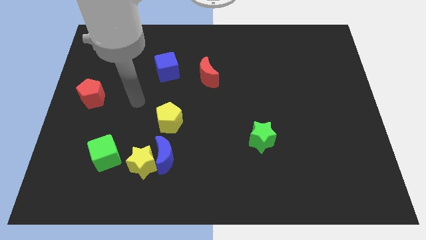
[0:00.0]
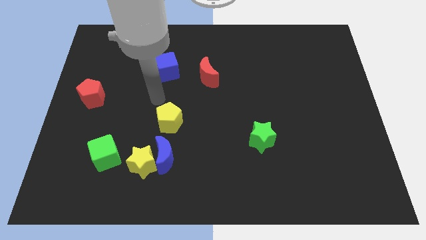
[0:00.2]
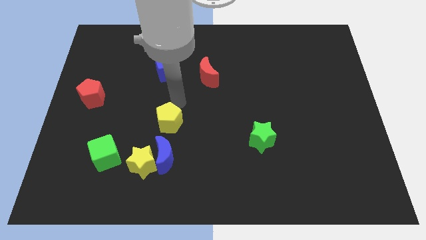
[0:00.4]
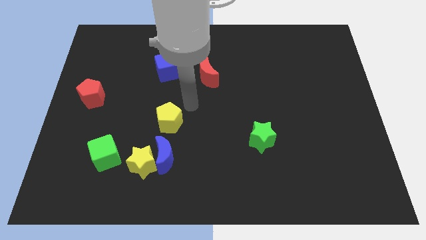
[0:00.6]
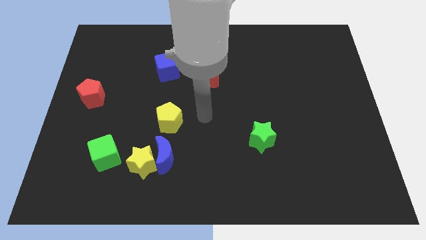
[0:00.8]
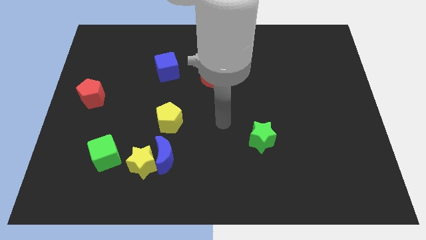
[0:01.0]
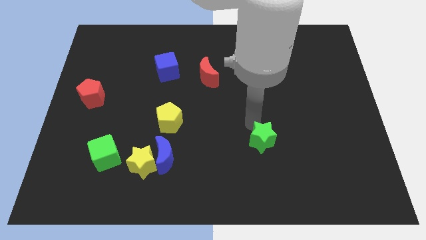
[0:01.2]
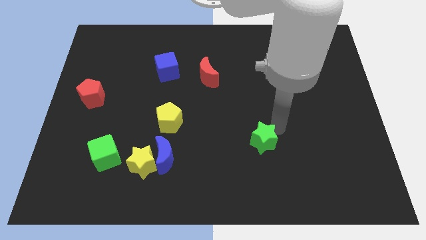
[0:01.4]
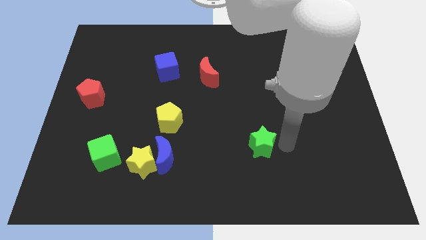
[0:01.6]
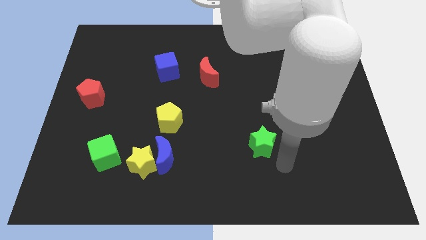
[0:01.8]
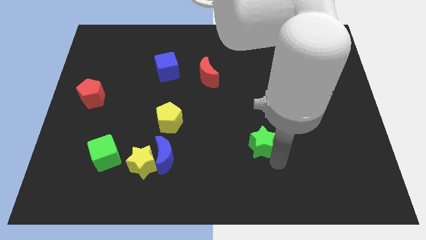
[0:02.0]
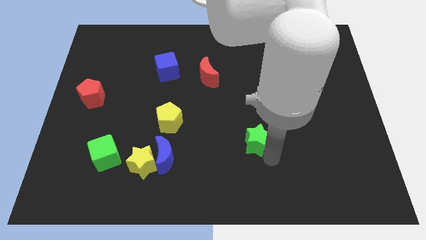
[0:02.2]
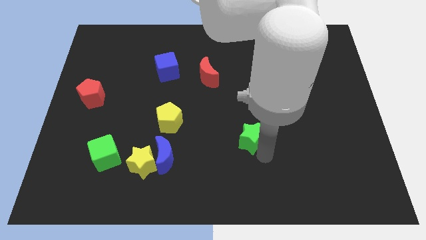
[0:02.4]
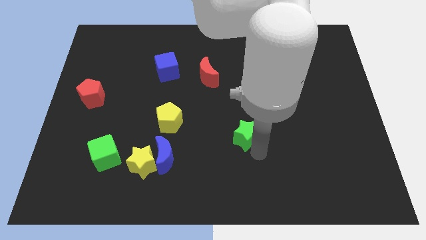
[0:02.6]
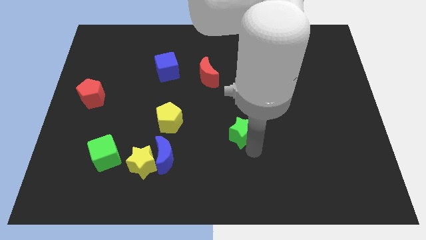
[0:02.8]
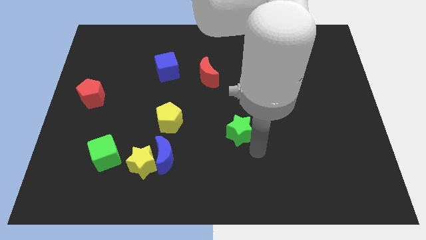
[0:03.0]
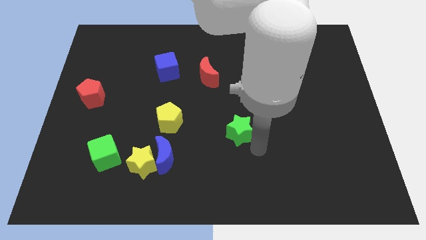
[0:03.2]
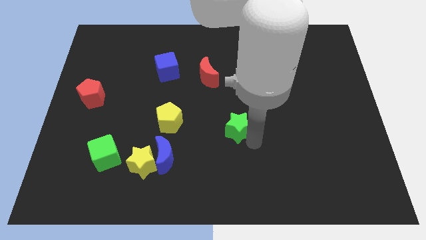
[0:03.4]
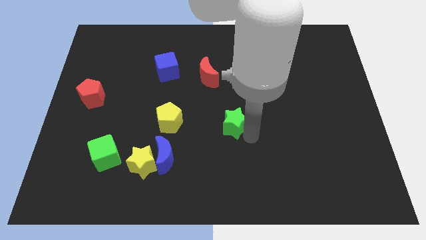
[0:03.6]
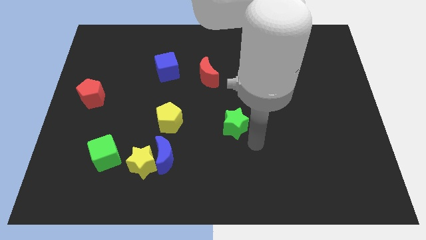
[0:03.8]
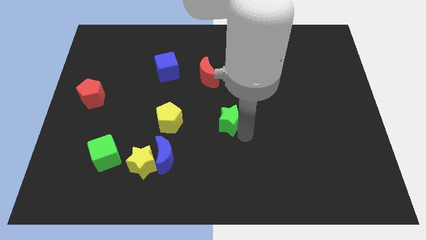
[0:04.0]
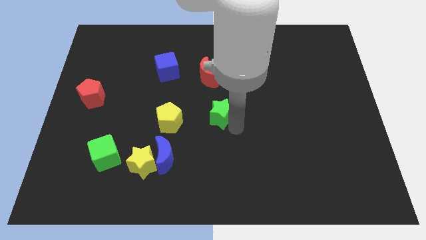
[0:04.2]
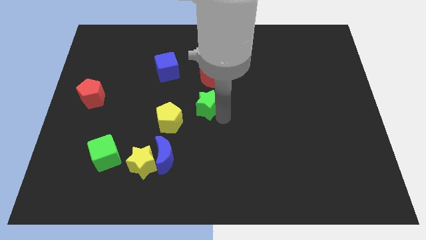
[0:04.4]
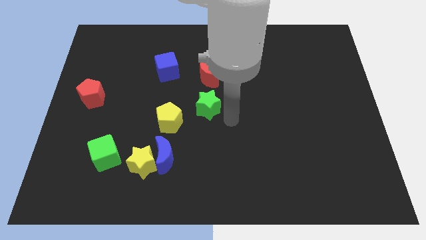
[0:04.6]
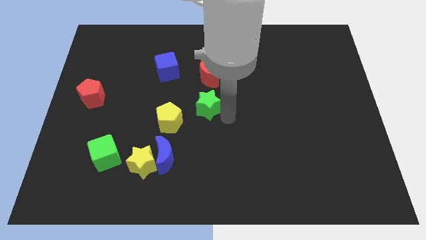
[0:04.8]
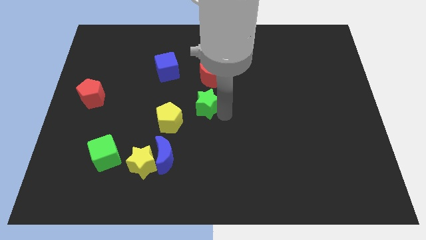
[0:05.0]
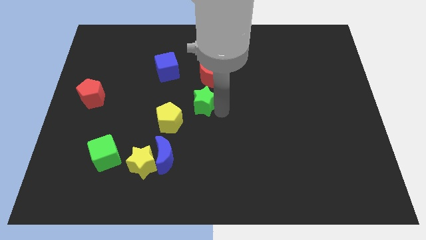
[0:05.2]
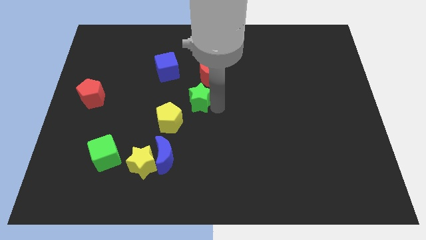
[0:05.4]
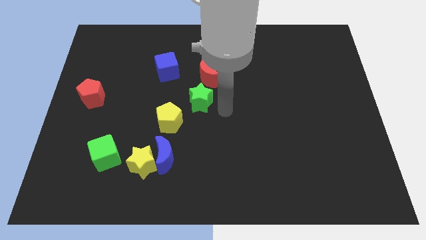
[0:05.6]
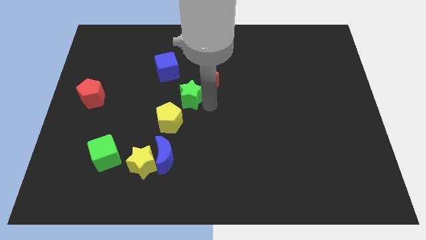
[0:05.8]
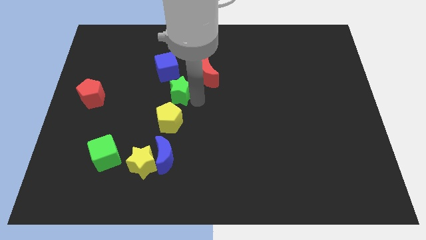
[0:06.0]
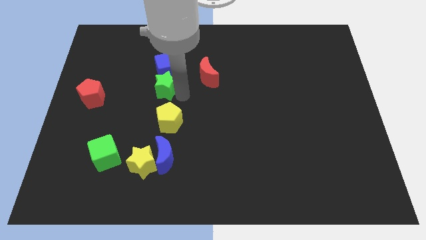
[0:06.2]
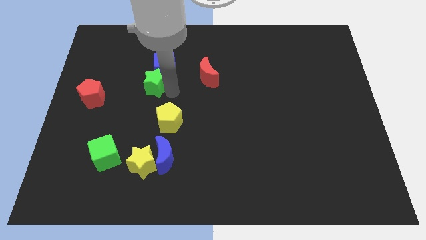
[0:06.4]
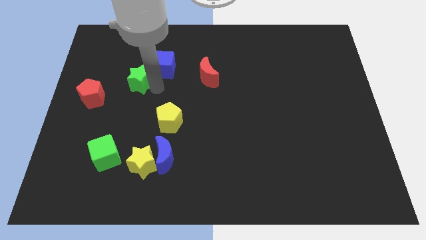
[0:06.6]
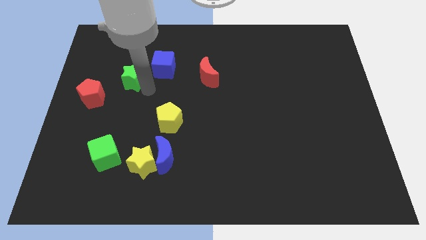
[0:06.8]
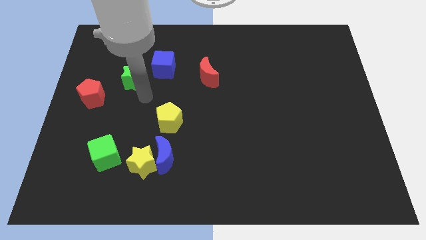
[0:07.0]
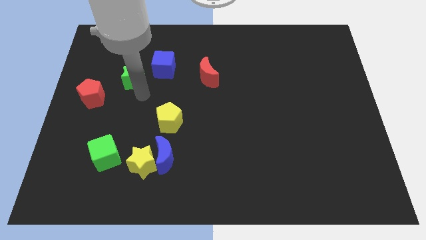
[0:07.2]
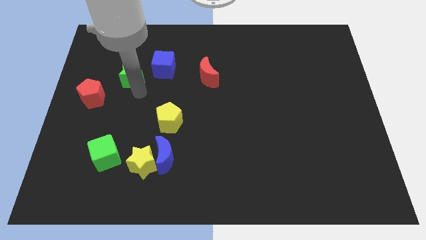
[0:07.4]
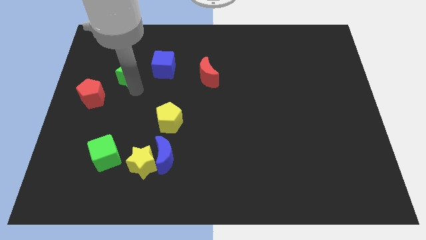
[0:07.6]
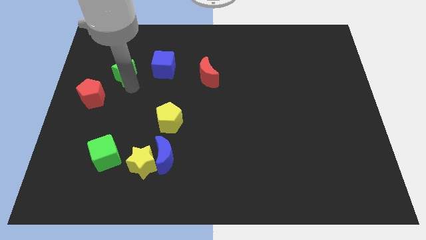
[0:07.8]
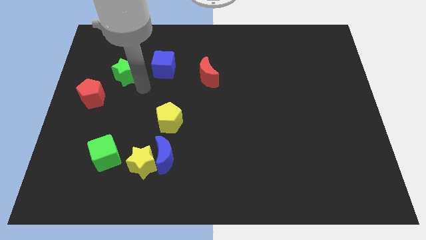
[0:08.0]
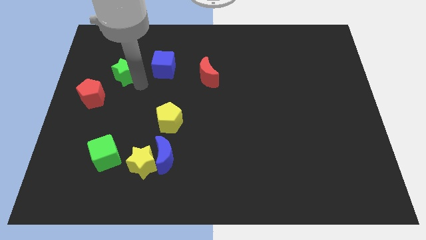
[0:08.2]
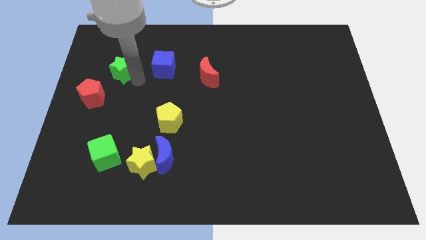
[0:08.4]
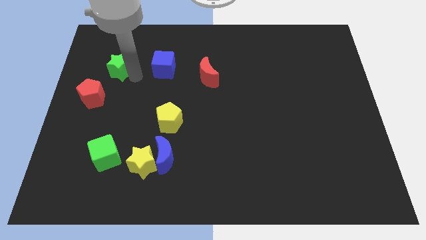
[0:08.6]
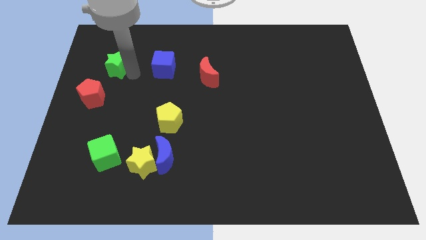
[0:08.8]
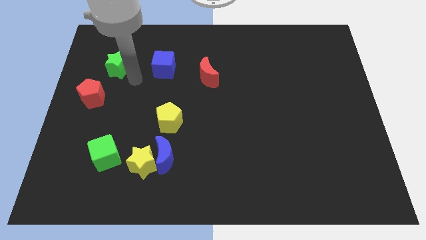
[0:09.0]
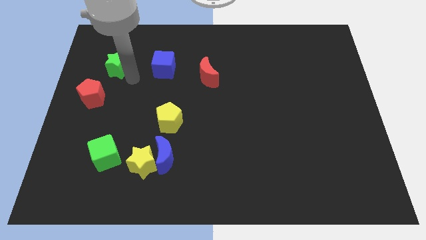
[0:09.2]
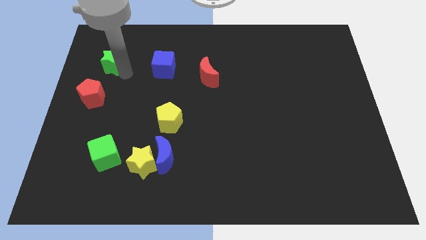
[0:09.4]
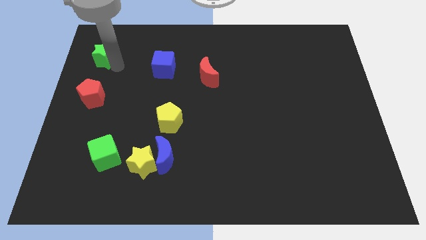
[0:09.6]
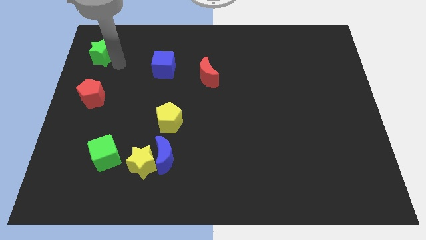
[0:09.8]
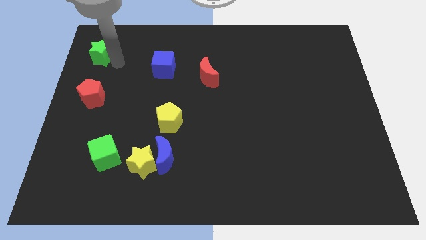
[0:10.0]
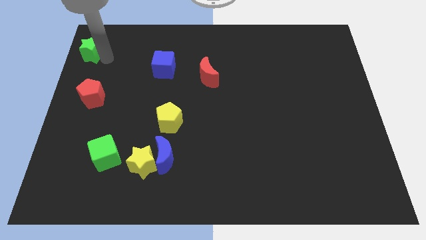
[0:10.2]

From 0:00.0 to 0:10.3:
put the green star to the top left corner

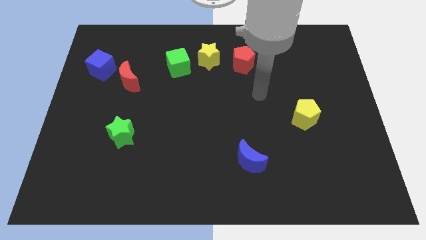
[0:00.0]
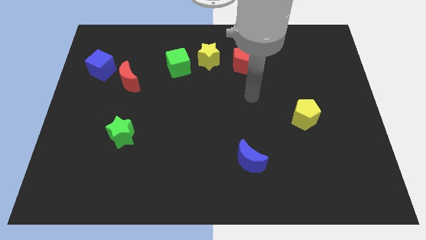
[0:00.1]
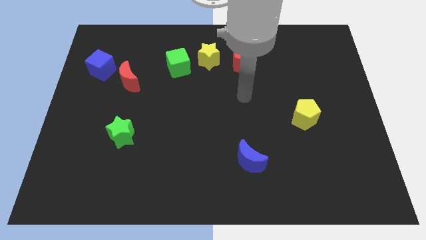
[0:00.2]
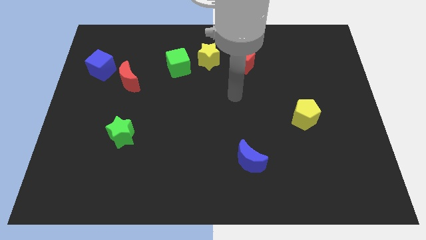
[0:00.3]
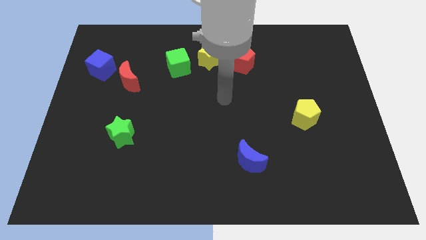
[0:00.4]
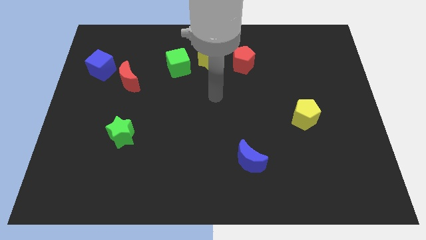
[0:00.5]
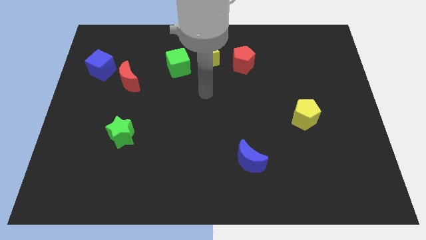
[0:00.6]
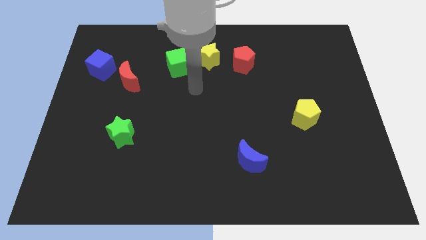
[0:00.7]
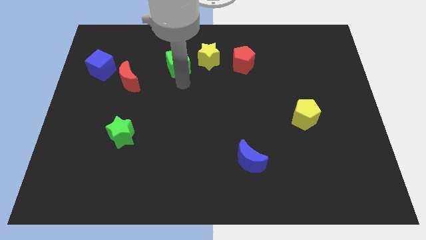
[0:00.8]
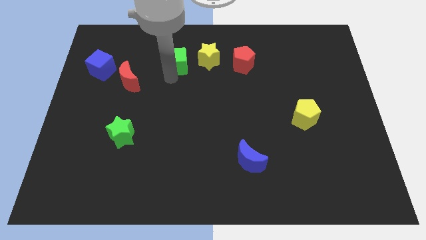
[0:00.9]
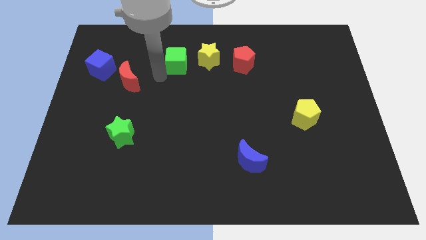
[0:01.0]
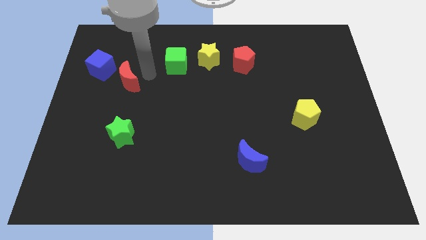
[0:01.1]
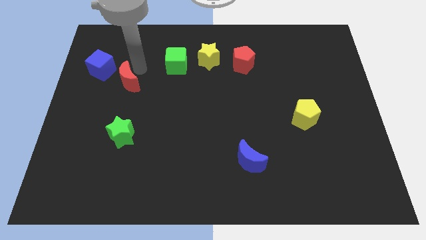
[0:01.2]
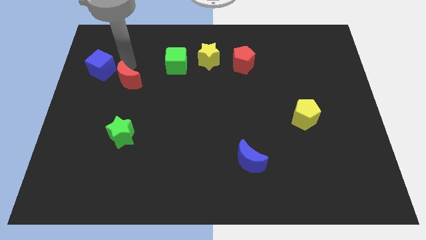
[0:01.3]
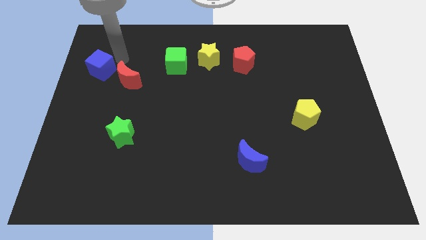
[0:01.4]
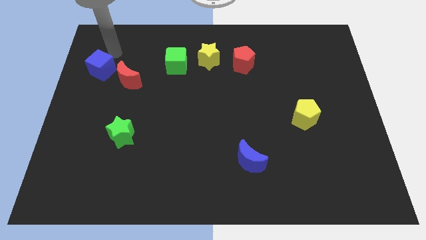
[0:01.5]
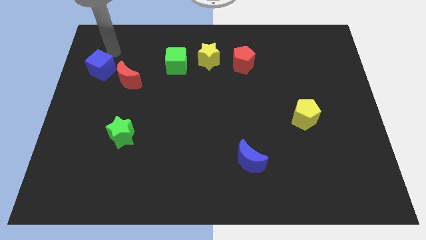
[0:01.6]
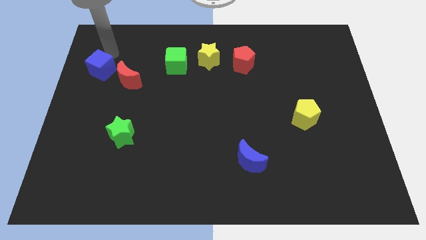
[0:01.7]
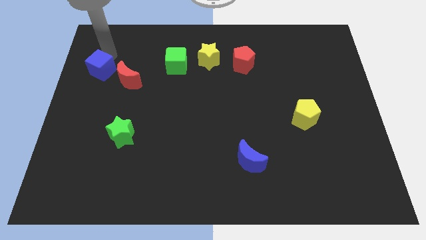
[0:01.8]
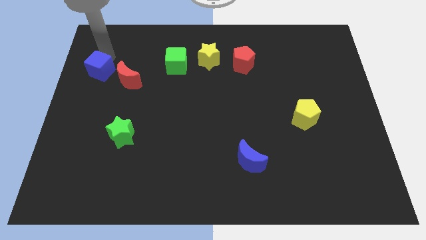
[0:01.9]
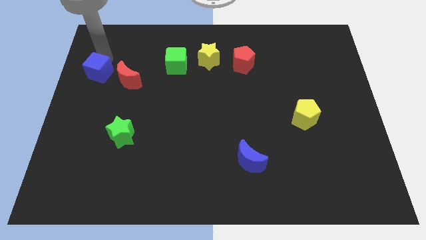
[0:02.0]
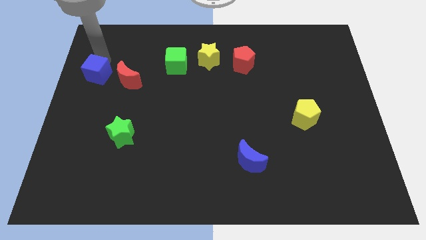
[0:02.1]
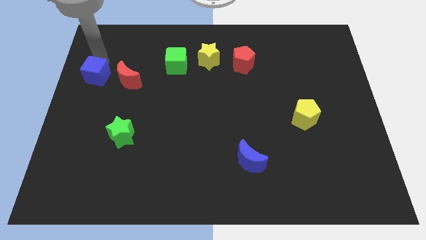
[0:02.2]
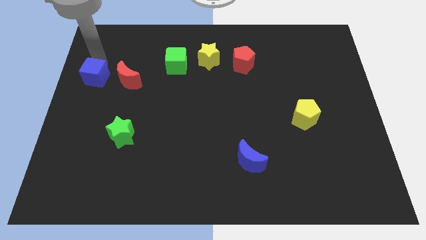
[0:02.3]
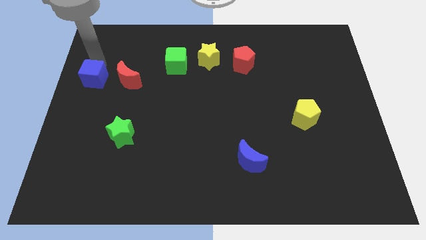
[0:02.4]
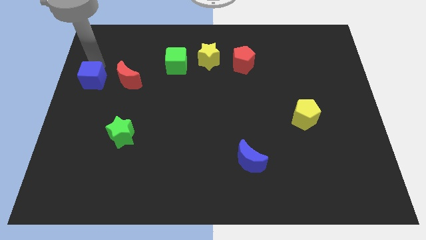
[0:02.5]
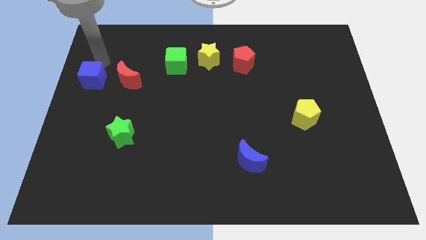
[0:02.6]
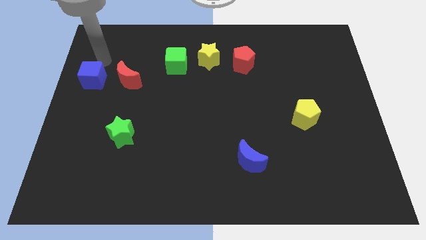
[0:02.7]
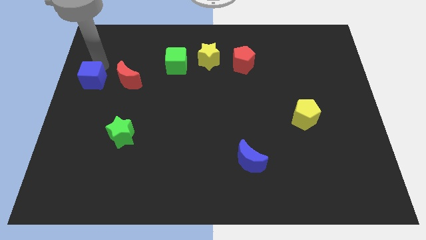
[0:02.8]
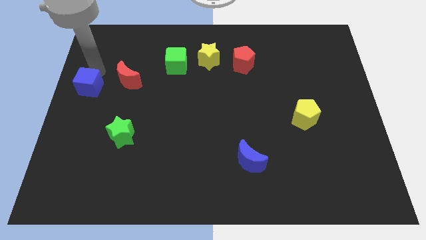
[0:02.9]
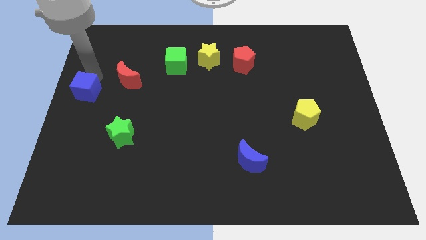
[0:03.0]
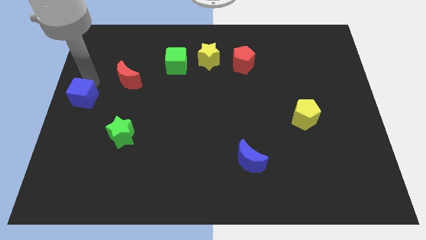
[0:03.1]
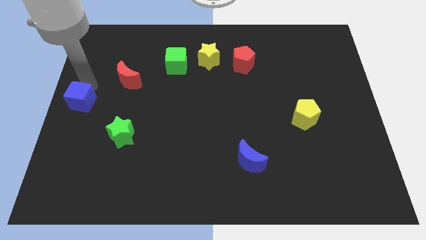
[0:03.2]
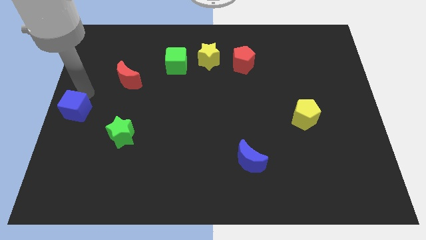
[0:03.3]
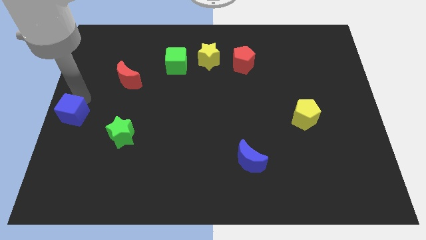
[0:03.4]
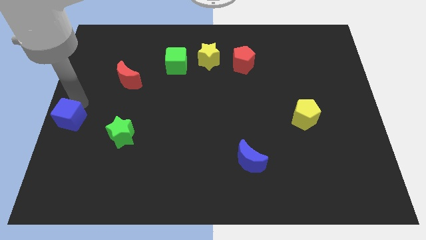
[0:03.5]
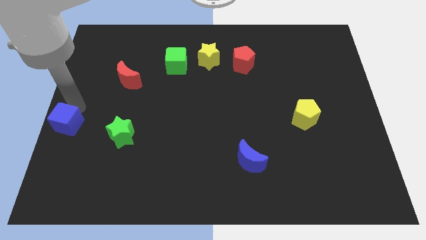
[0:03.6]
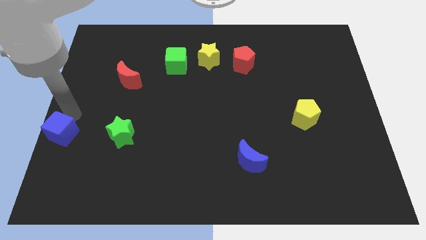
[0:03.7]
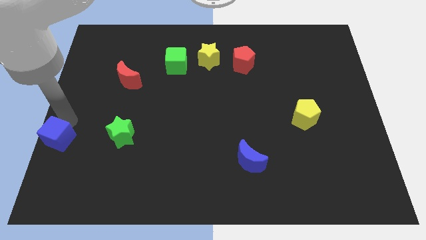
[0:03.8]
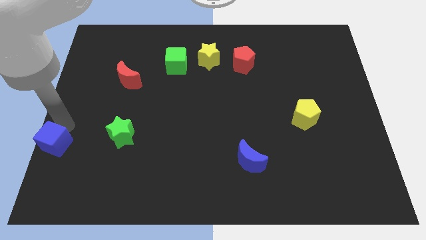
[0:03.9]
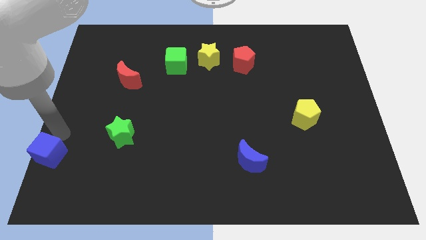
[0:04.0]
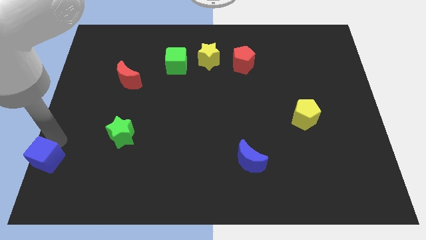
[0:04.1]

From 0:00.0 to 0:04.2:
put the blue cube to the bottom left
